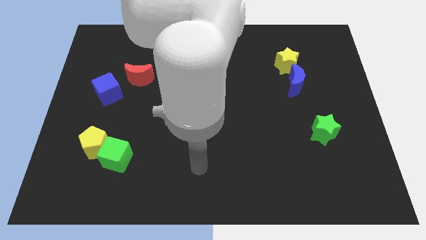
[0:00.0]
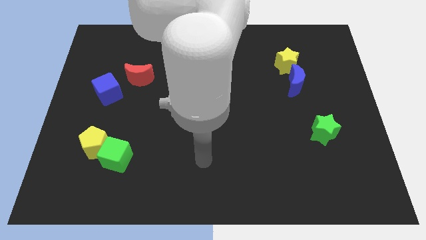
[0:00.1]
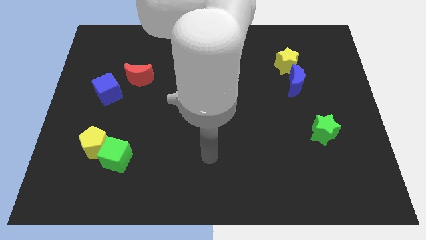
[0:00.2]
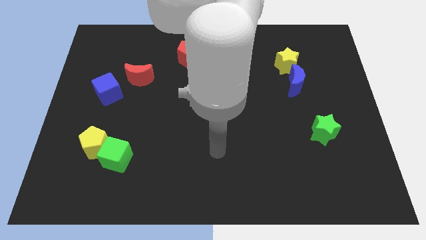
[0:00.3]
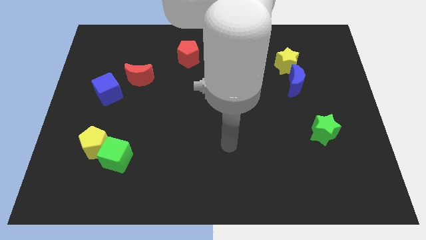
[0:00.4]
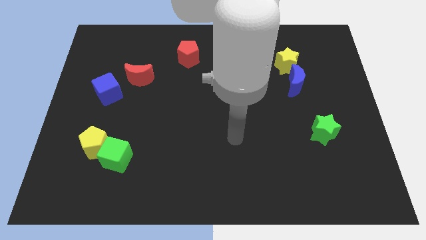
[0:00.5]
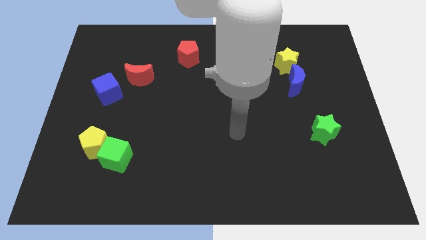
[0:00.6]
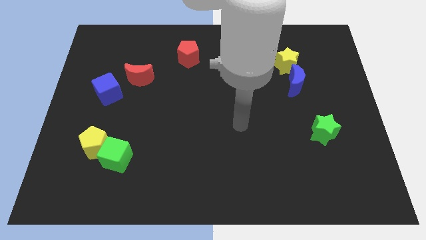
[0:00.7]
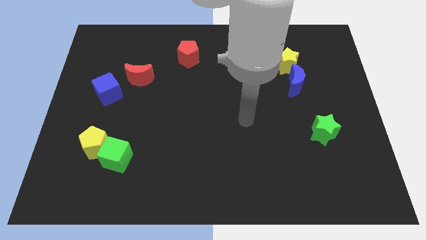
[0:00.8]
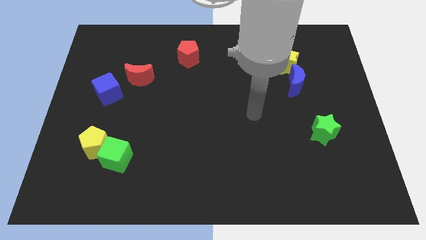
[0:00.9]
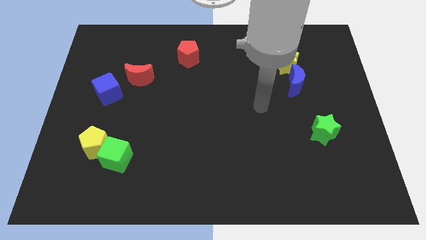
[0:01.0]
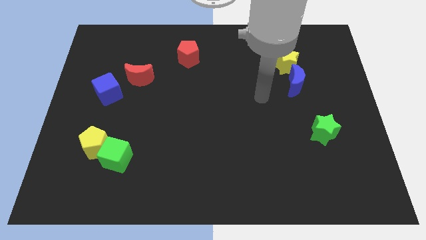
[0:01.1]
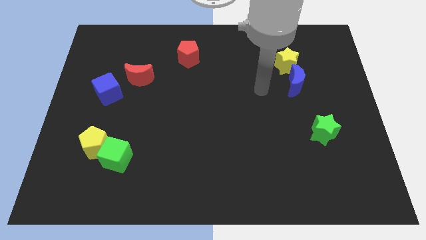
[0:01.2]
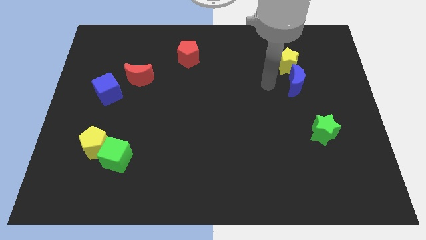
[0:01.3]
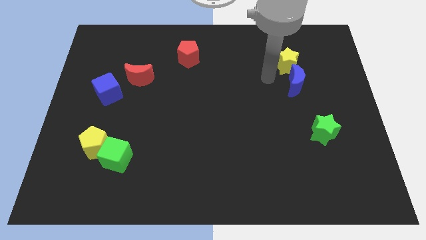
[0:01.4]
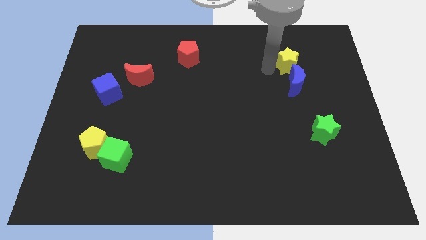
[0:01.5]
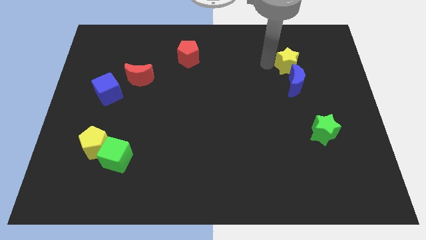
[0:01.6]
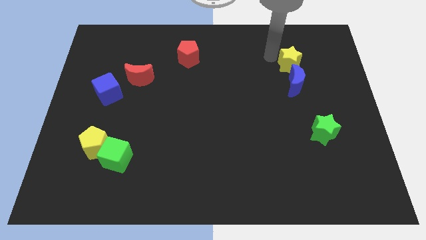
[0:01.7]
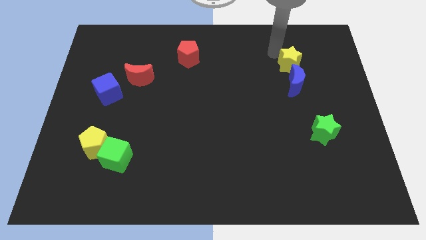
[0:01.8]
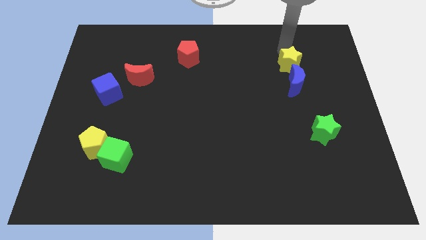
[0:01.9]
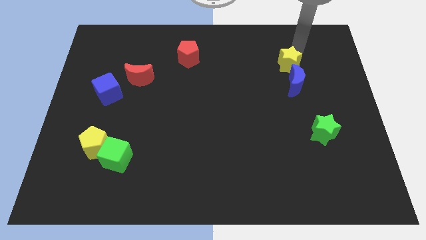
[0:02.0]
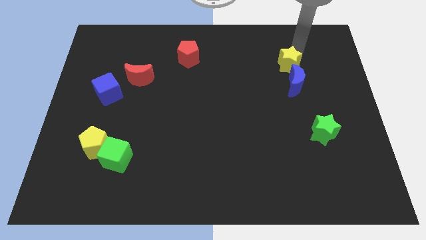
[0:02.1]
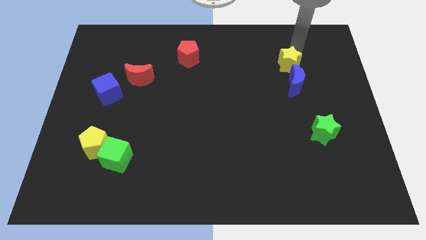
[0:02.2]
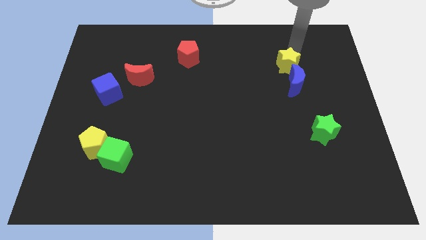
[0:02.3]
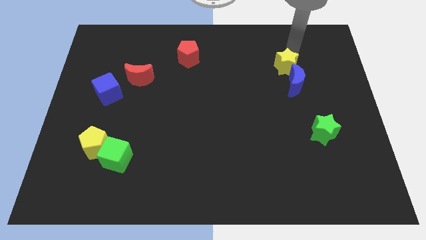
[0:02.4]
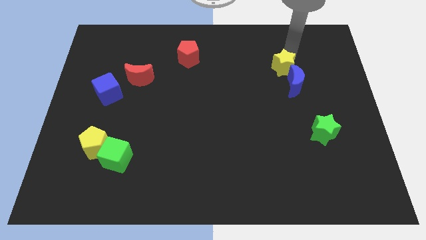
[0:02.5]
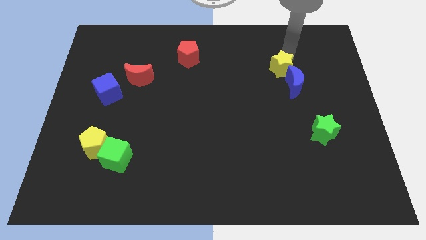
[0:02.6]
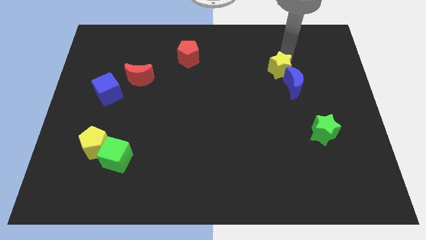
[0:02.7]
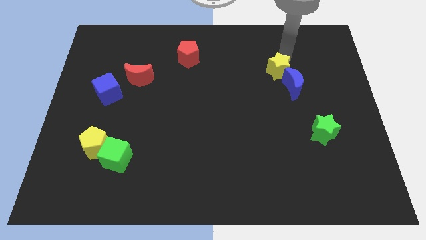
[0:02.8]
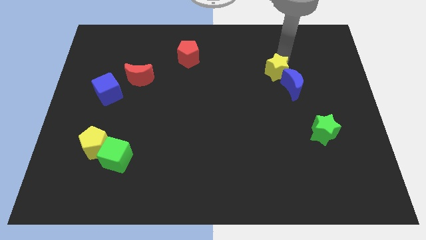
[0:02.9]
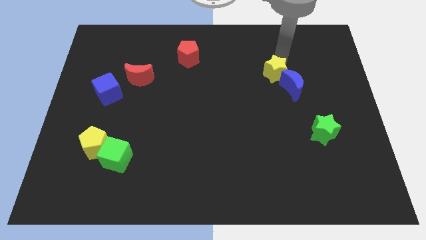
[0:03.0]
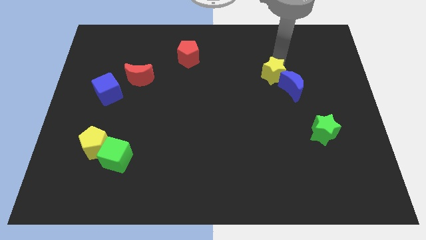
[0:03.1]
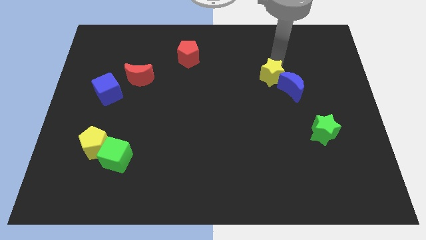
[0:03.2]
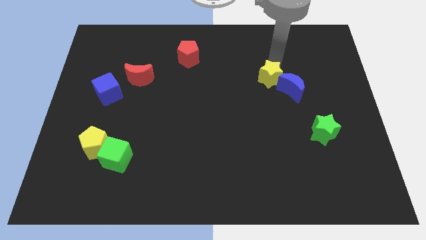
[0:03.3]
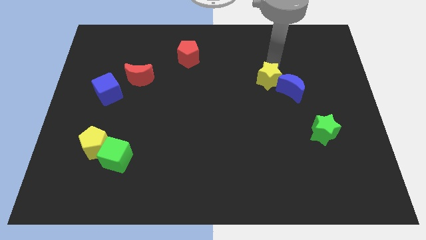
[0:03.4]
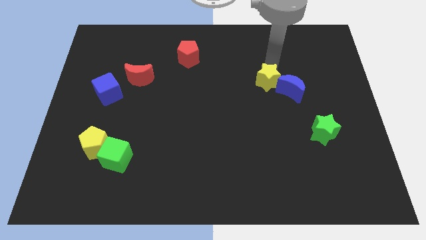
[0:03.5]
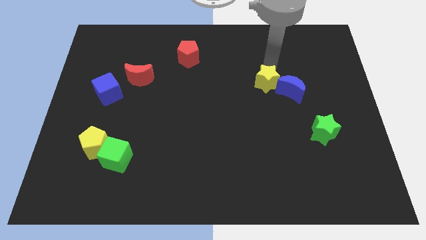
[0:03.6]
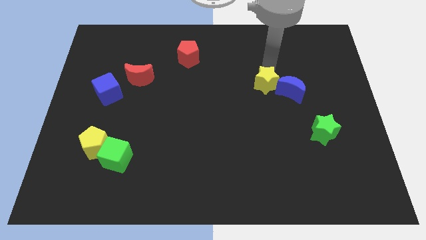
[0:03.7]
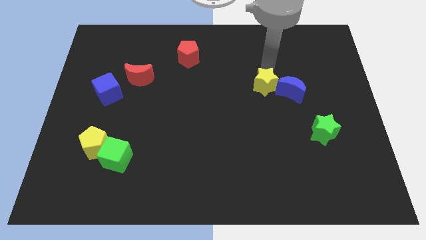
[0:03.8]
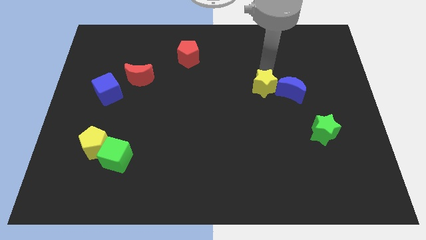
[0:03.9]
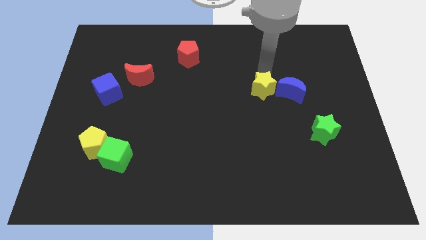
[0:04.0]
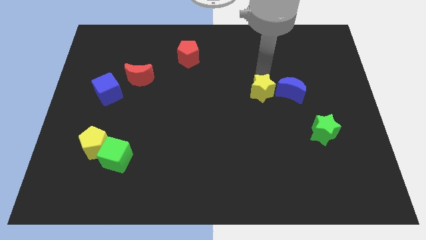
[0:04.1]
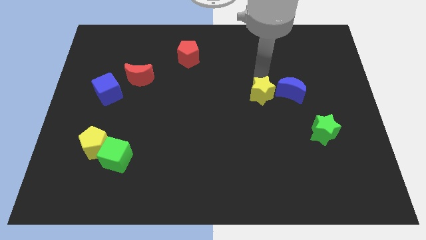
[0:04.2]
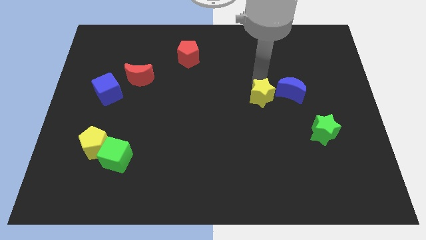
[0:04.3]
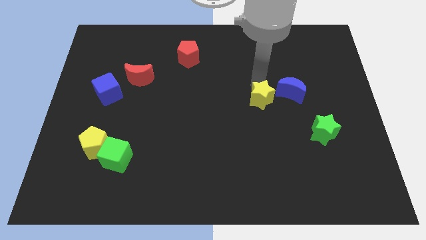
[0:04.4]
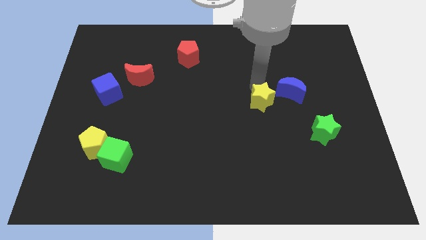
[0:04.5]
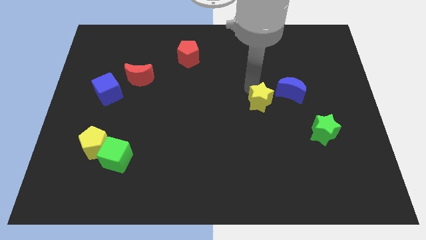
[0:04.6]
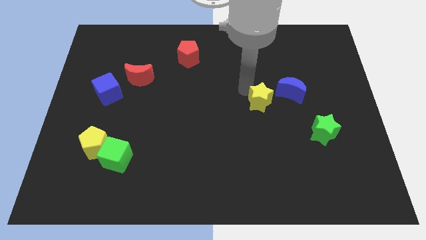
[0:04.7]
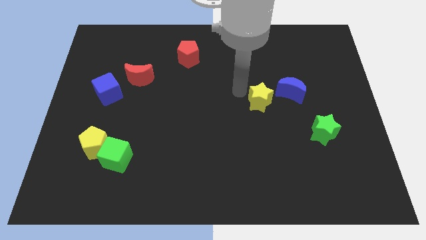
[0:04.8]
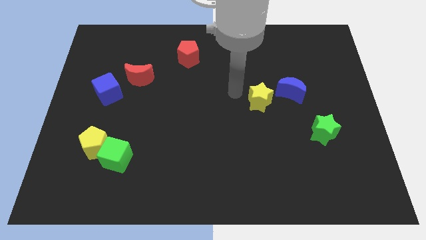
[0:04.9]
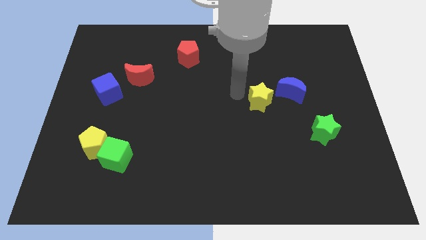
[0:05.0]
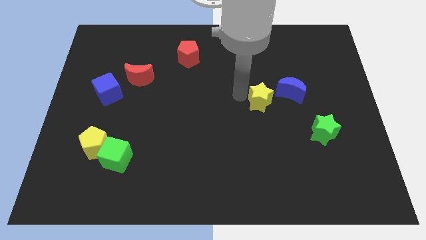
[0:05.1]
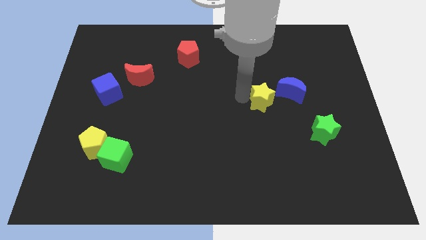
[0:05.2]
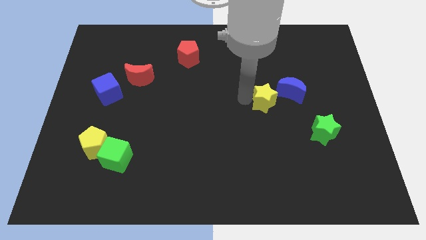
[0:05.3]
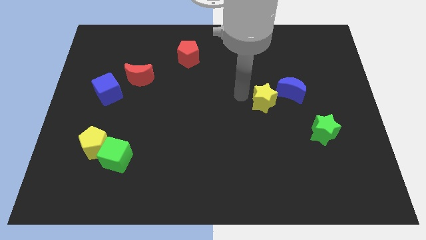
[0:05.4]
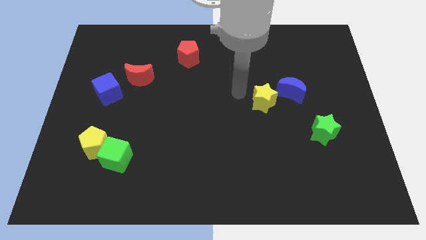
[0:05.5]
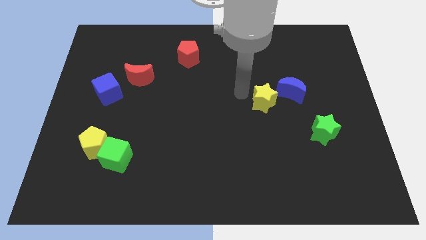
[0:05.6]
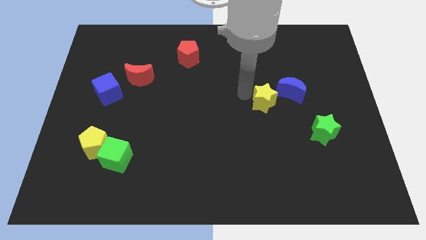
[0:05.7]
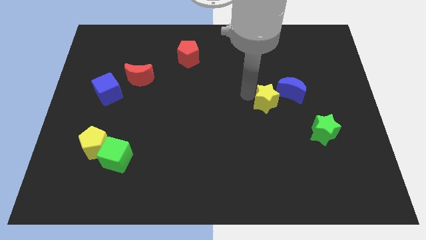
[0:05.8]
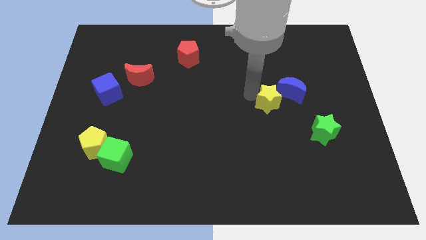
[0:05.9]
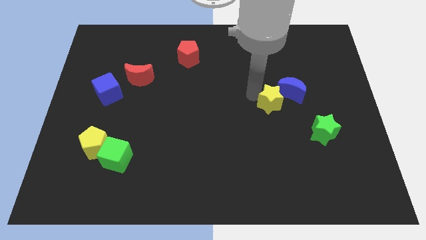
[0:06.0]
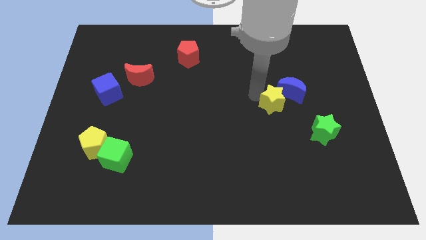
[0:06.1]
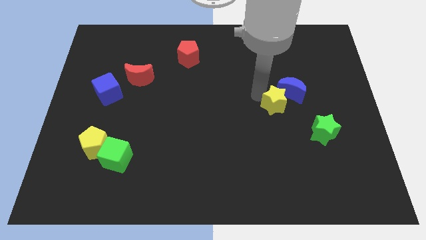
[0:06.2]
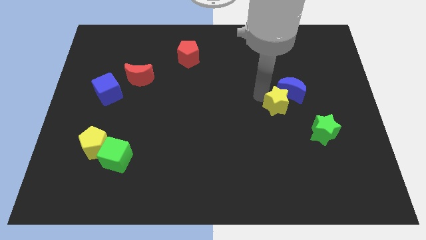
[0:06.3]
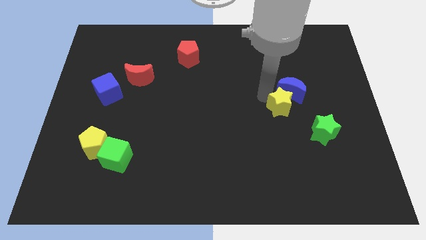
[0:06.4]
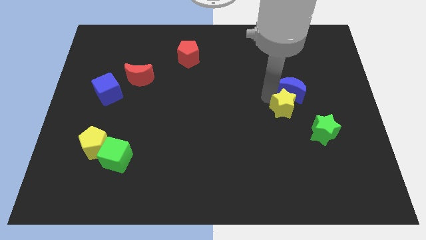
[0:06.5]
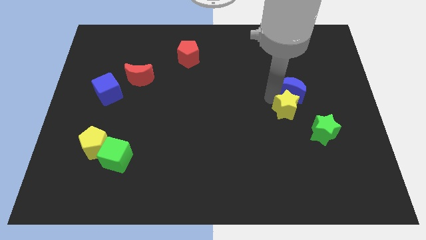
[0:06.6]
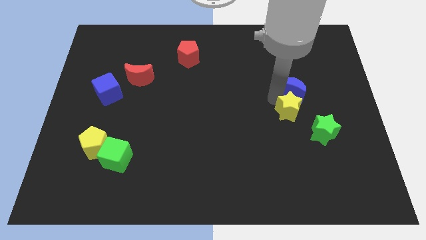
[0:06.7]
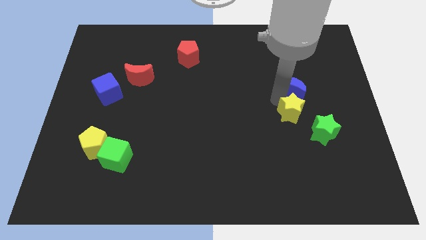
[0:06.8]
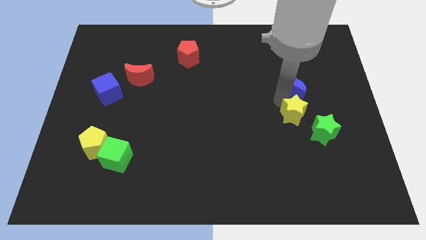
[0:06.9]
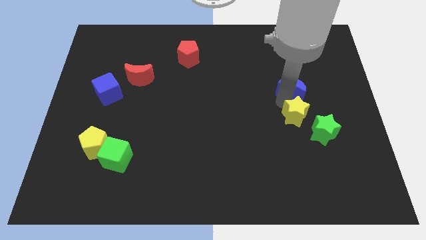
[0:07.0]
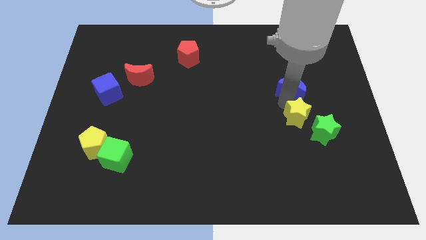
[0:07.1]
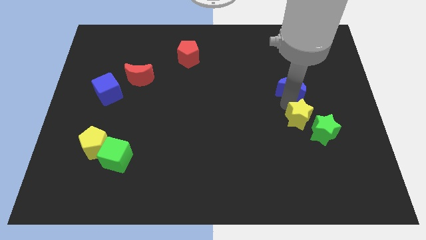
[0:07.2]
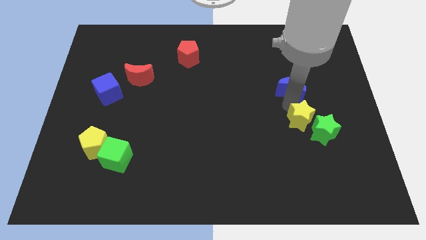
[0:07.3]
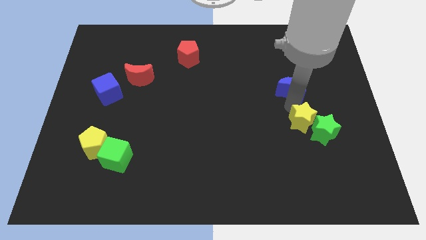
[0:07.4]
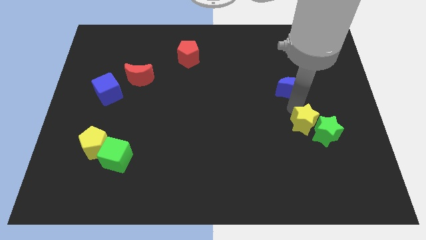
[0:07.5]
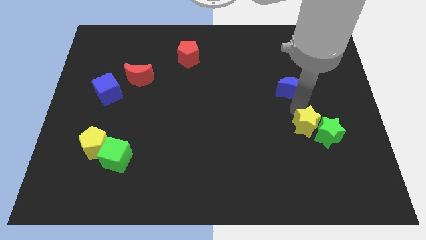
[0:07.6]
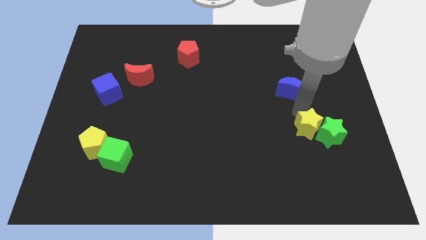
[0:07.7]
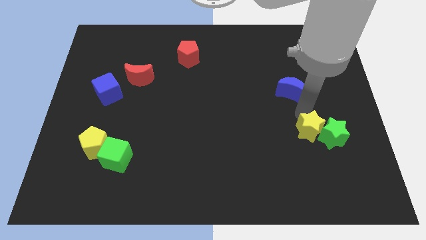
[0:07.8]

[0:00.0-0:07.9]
push the yellow star downwards
